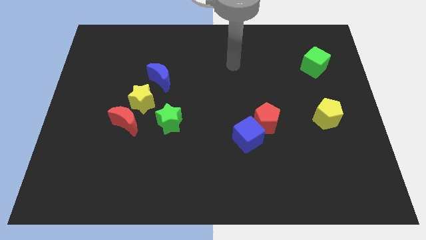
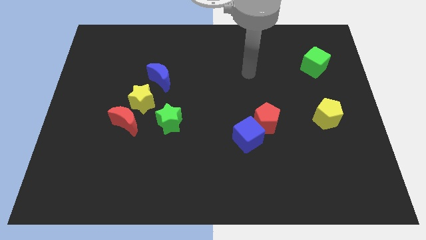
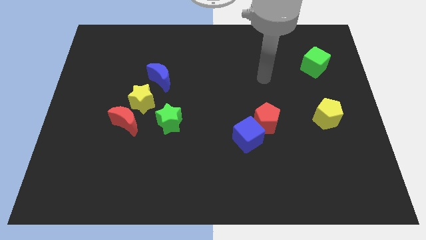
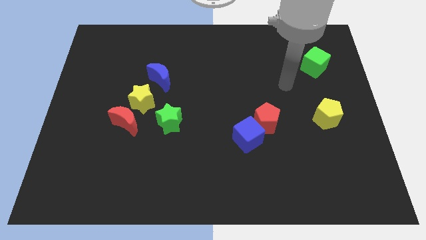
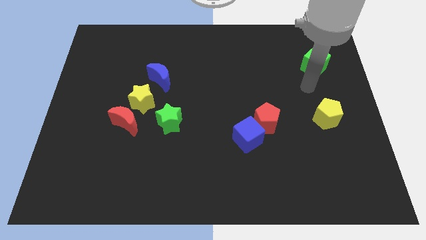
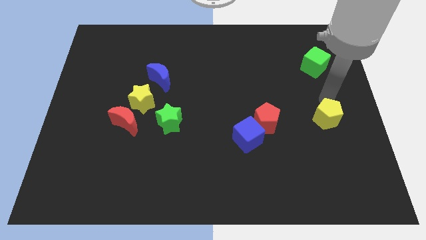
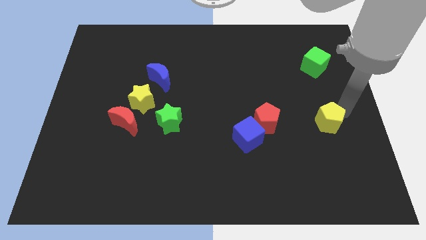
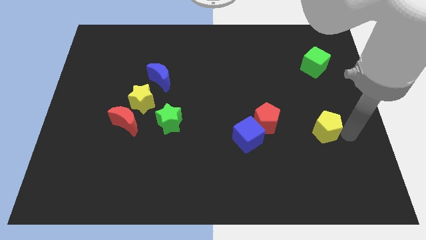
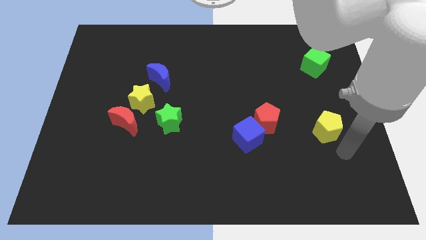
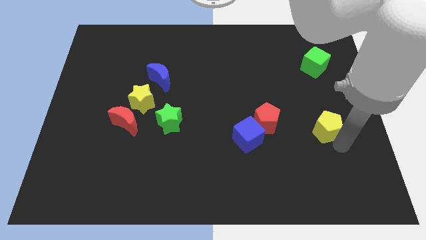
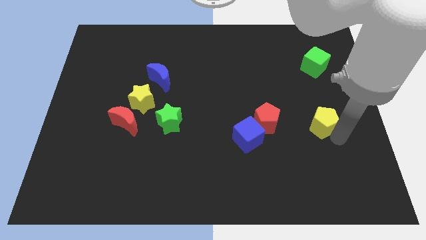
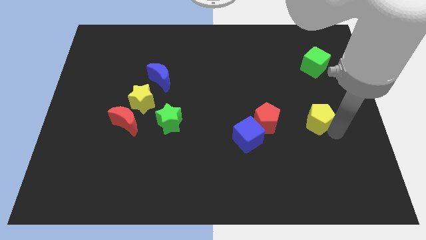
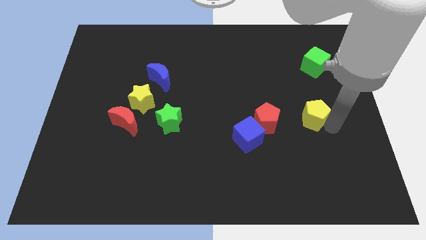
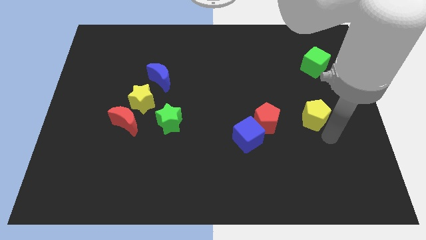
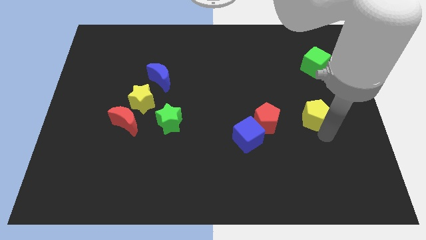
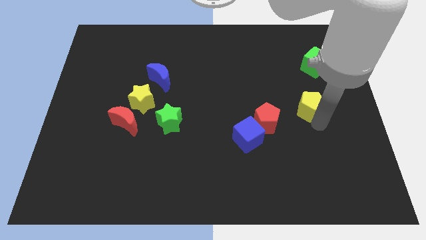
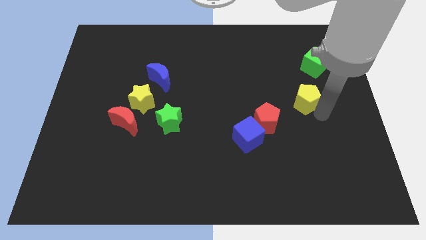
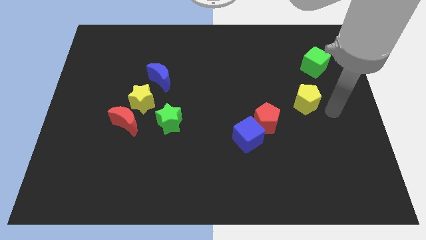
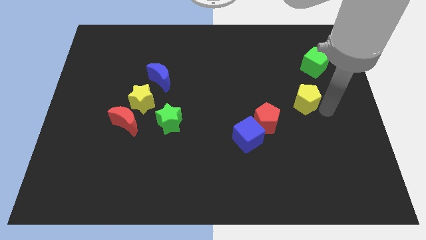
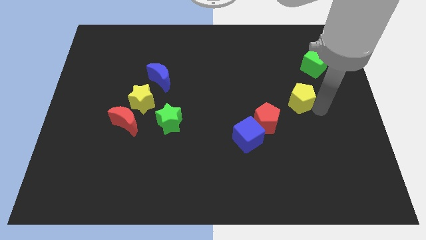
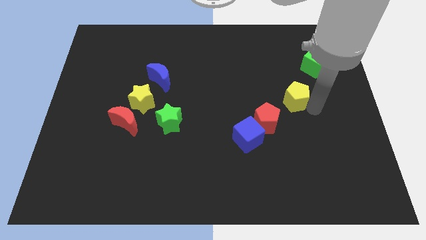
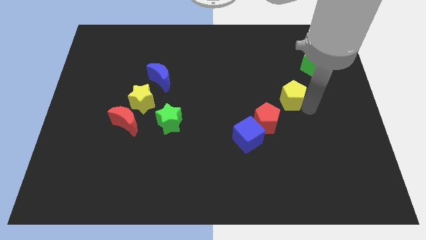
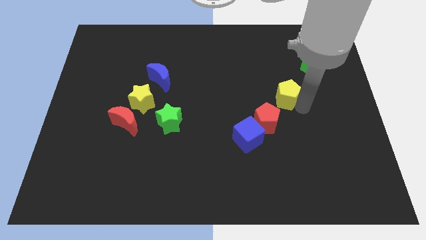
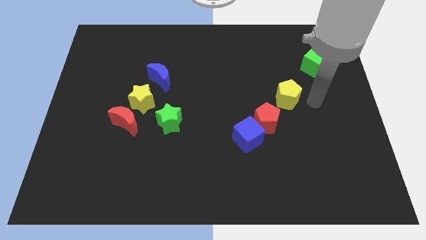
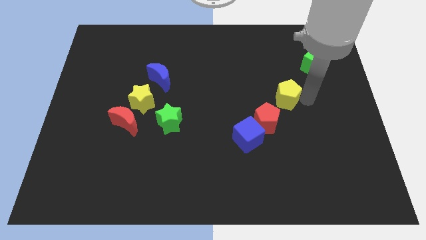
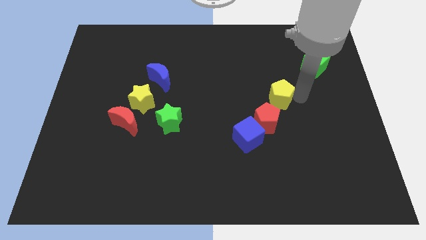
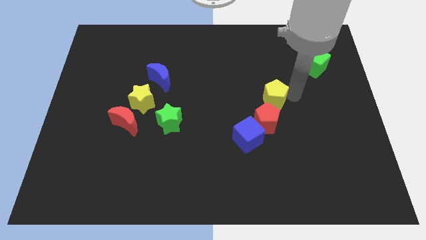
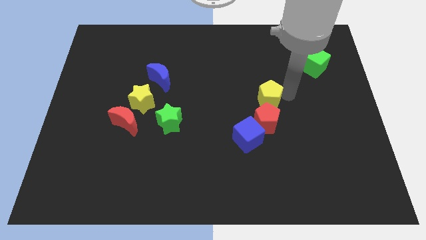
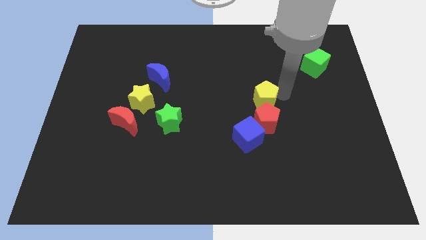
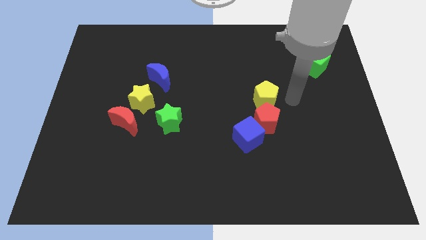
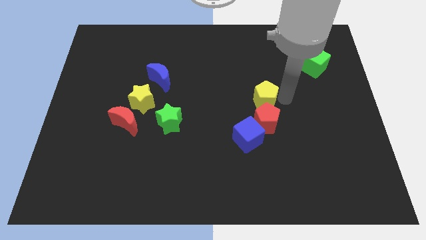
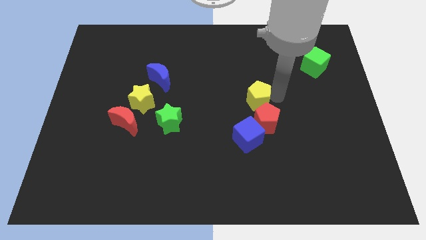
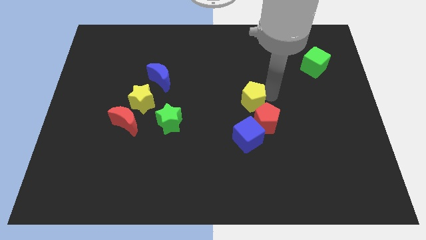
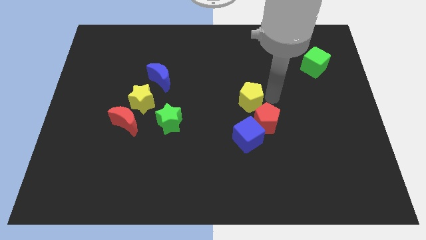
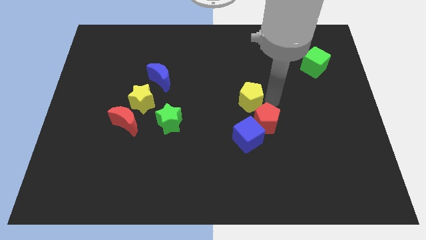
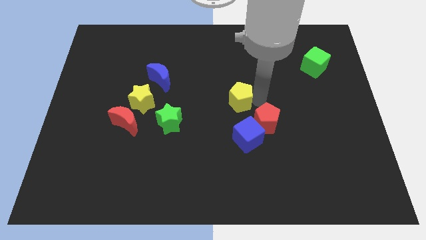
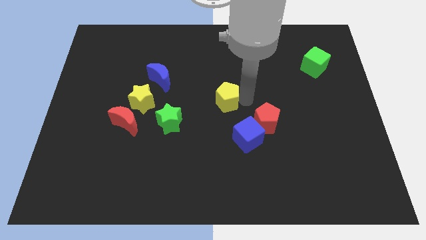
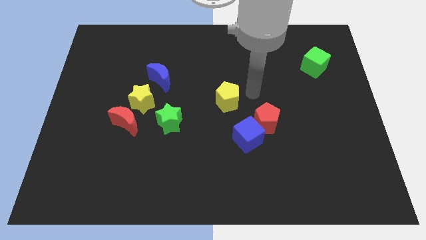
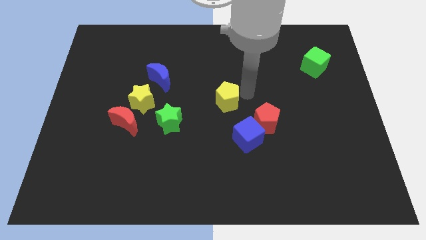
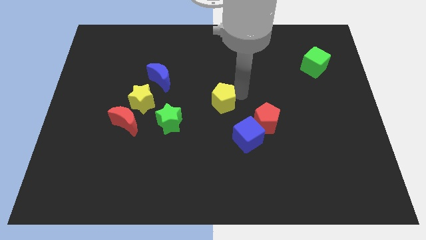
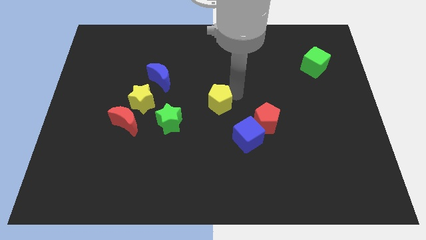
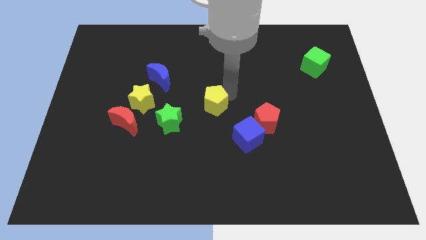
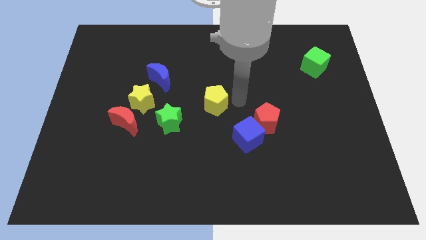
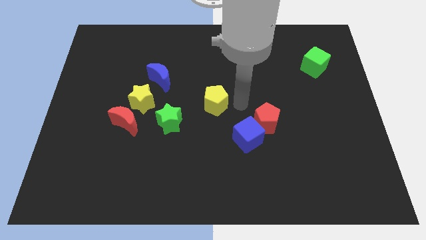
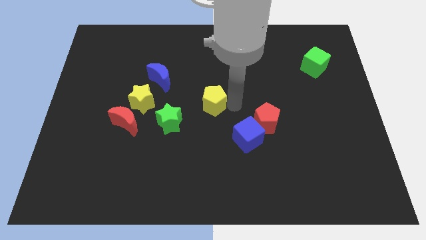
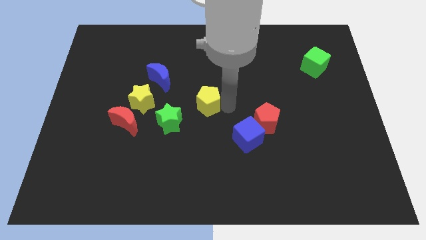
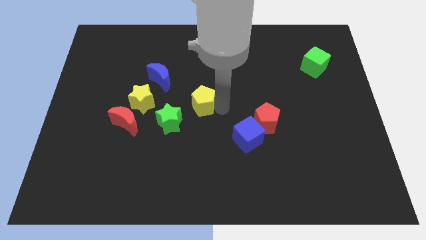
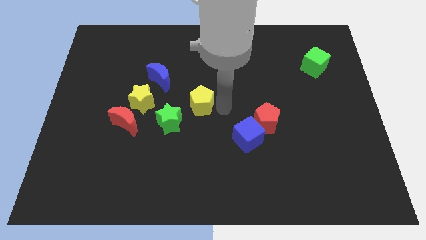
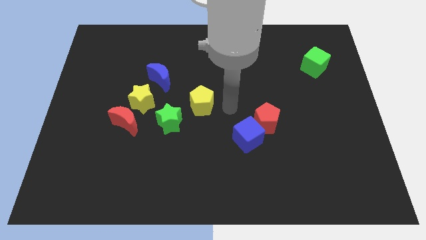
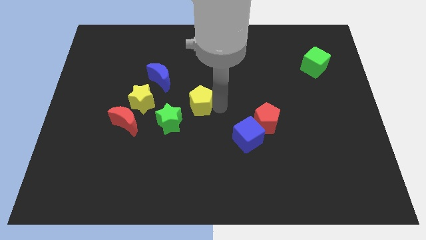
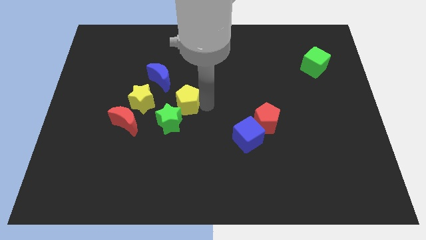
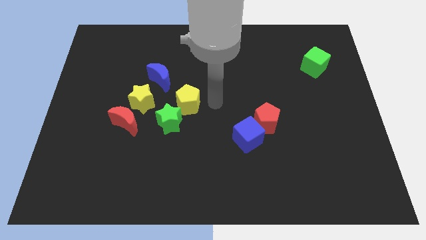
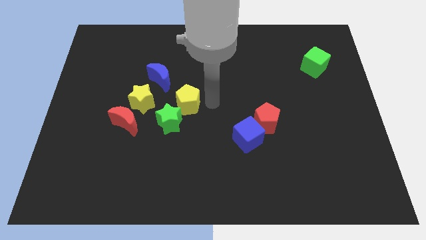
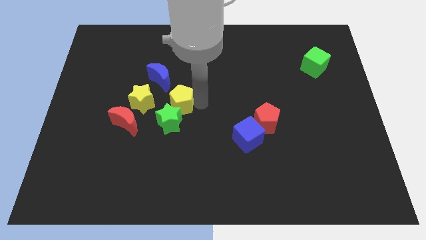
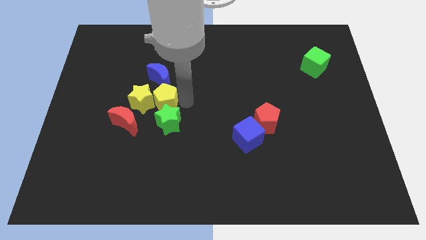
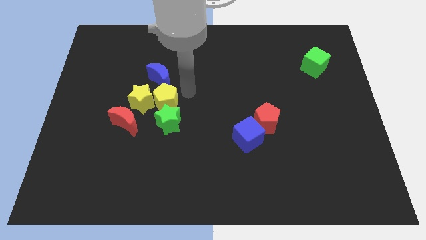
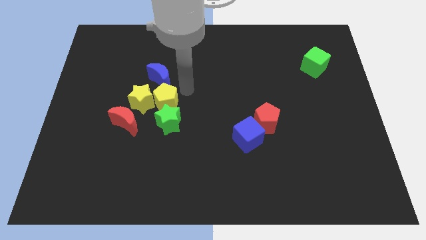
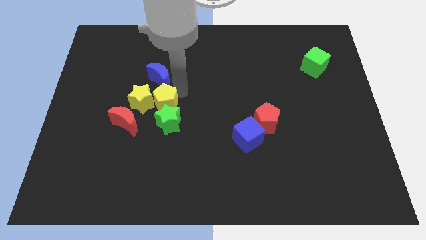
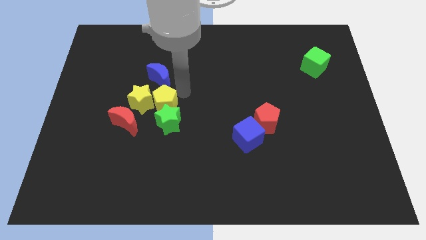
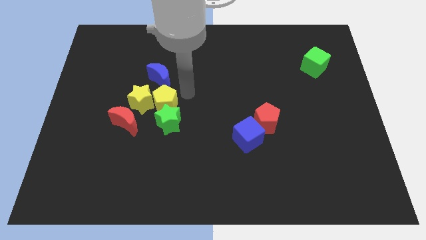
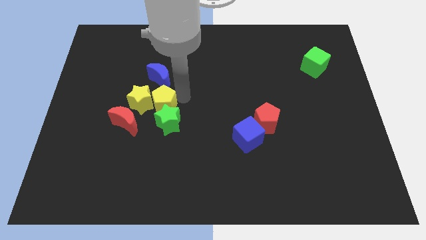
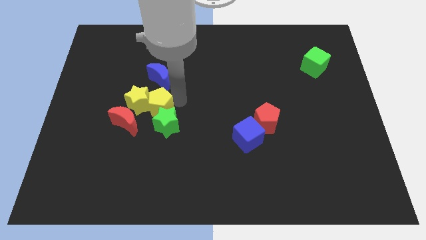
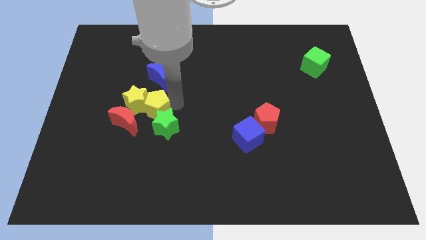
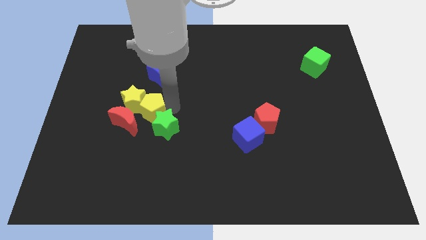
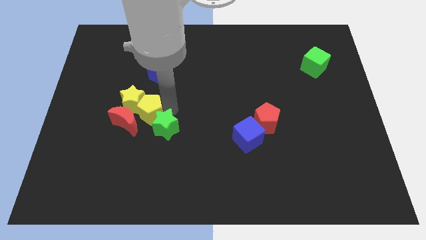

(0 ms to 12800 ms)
slide the yellow pentagon towards the red moon
